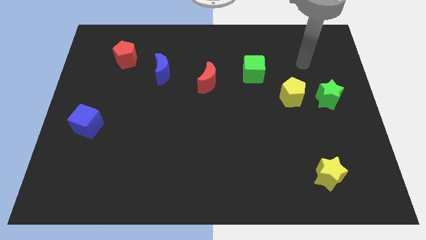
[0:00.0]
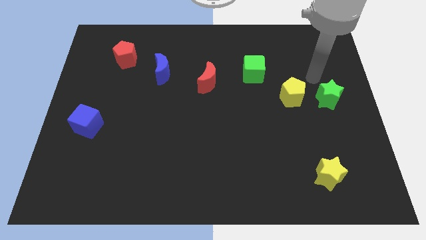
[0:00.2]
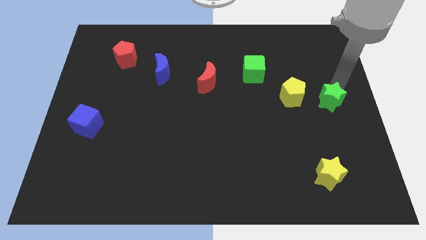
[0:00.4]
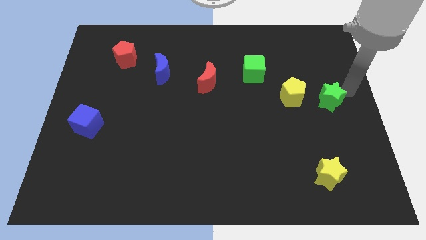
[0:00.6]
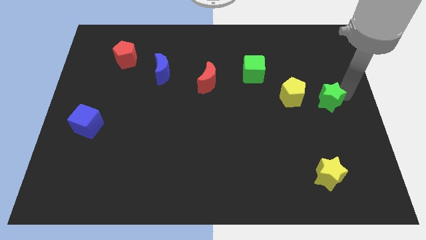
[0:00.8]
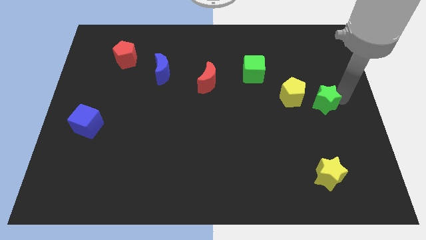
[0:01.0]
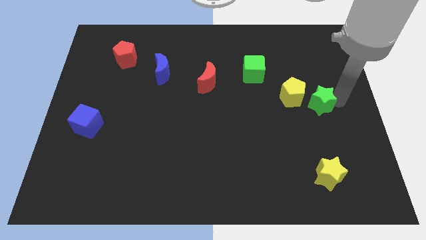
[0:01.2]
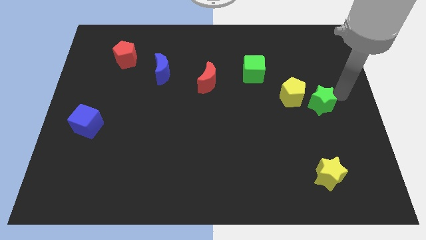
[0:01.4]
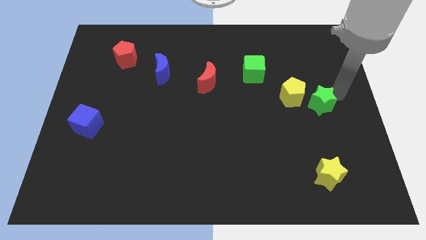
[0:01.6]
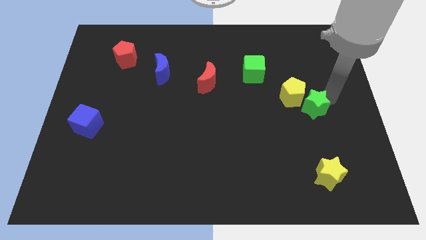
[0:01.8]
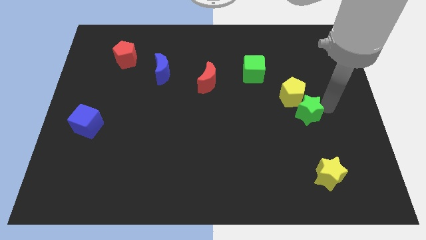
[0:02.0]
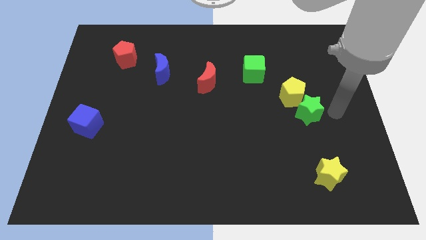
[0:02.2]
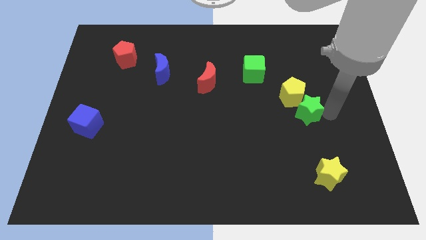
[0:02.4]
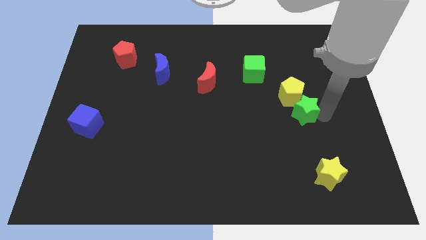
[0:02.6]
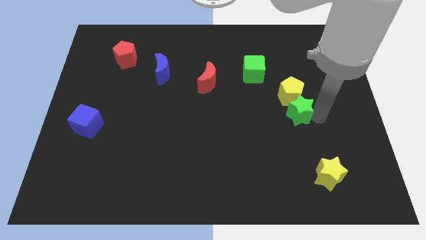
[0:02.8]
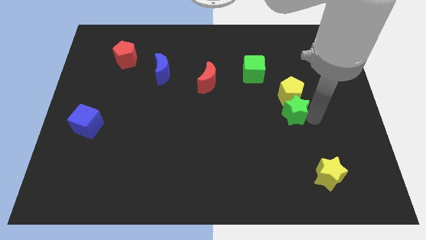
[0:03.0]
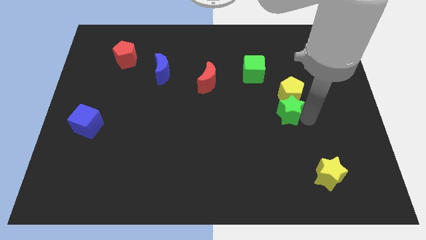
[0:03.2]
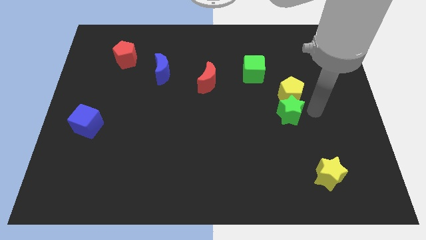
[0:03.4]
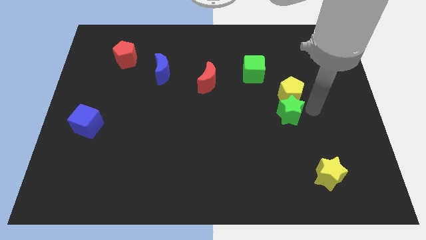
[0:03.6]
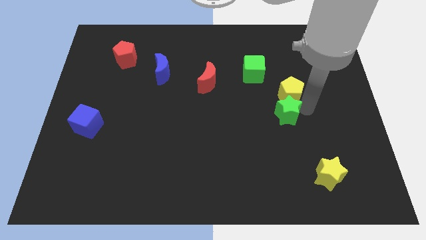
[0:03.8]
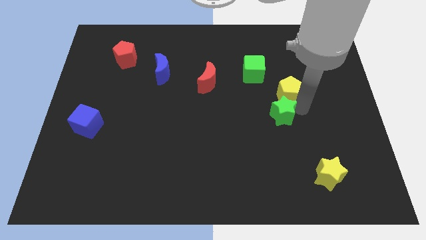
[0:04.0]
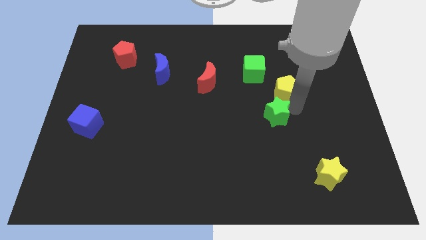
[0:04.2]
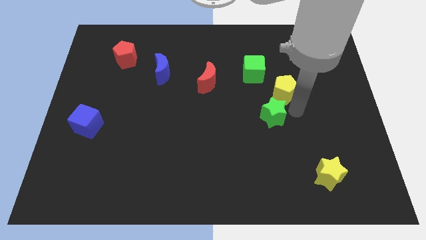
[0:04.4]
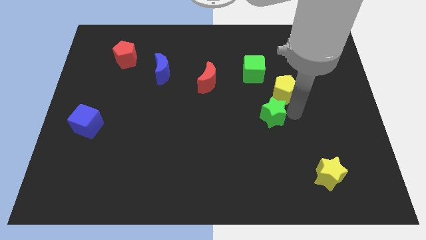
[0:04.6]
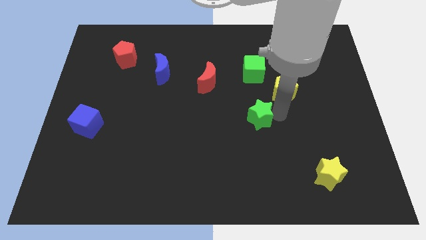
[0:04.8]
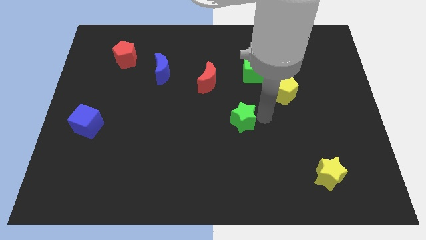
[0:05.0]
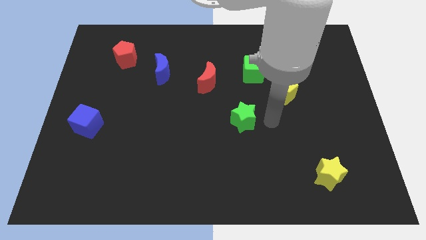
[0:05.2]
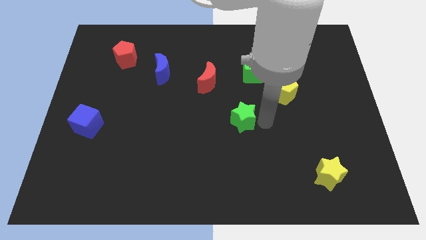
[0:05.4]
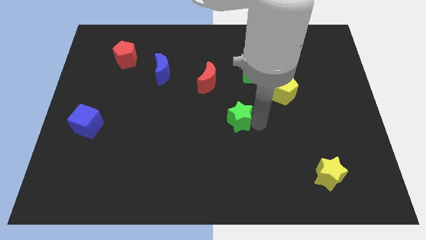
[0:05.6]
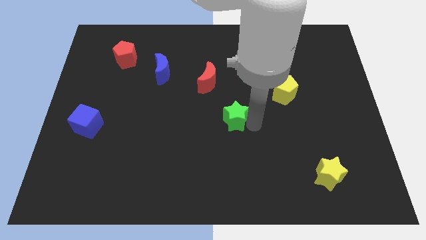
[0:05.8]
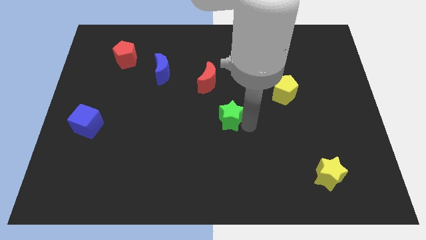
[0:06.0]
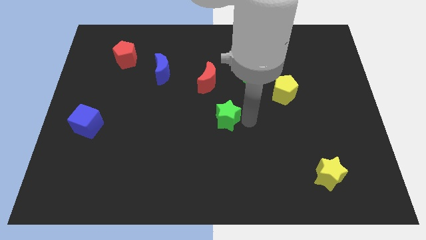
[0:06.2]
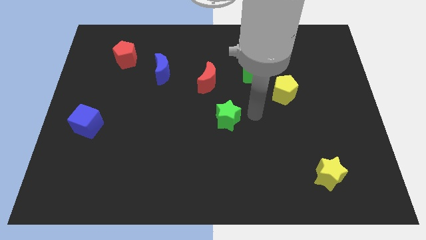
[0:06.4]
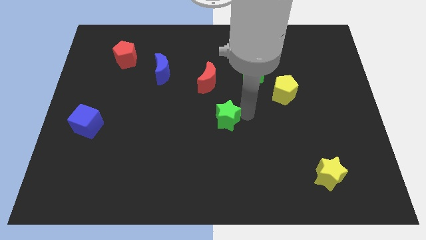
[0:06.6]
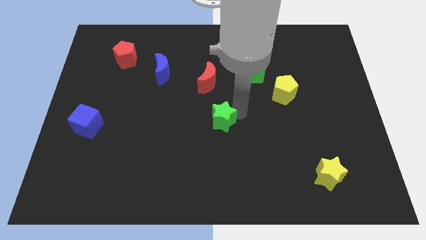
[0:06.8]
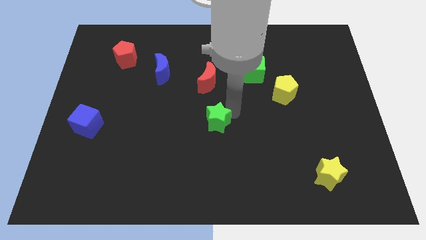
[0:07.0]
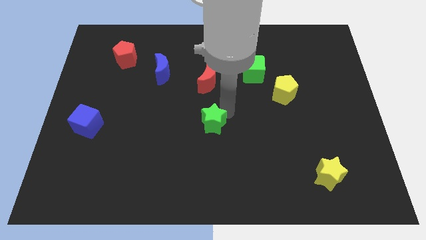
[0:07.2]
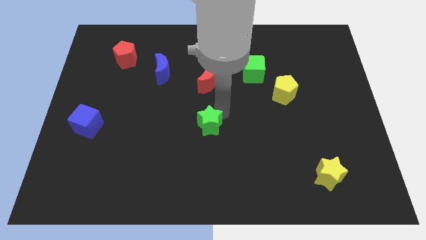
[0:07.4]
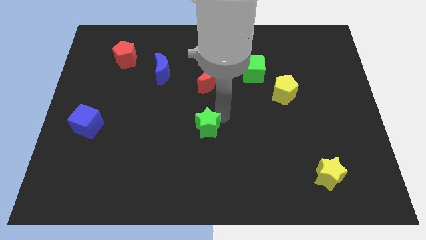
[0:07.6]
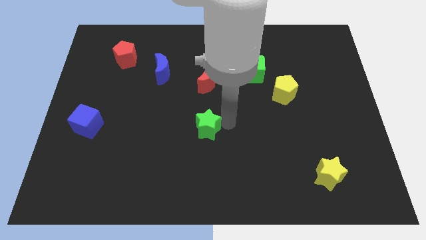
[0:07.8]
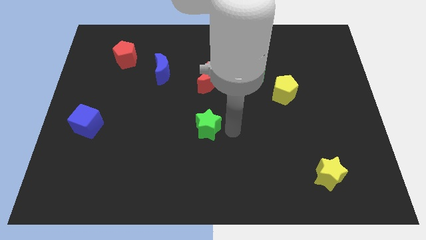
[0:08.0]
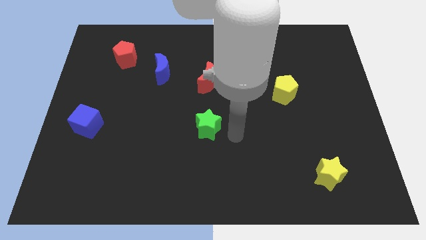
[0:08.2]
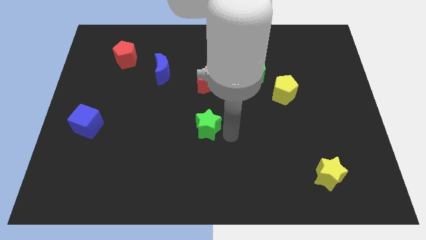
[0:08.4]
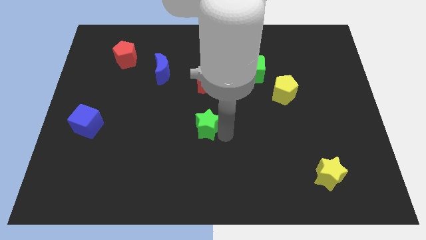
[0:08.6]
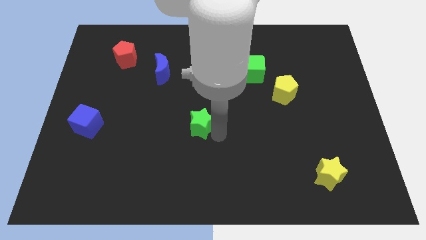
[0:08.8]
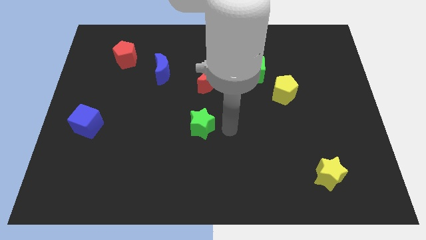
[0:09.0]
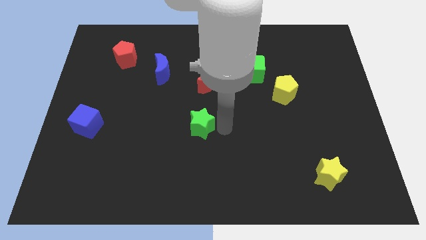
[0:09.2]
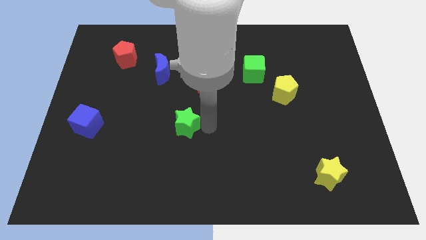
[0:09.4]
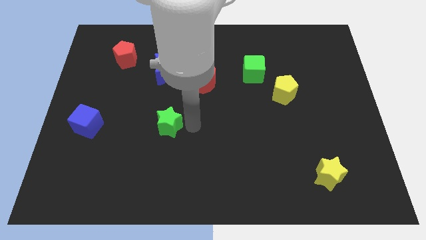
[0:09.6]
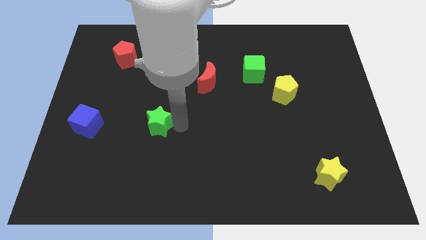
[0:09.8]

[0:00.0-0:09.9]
slide the green star just right of the blue cube

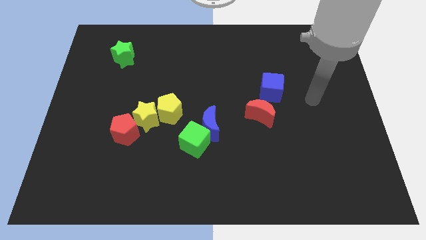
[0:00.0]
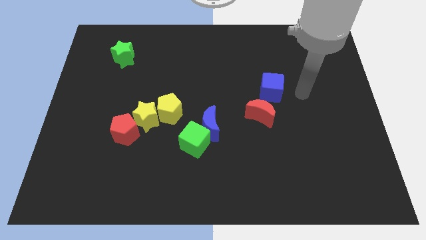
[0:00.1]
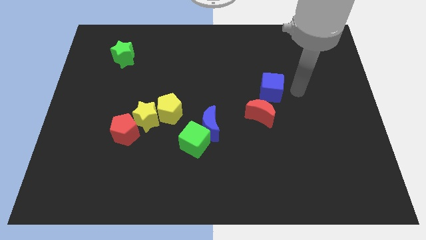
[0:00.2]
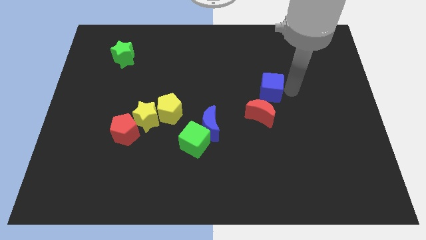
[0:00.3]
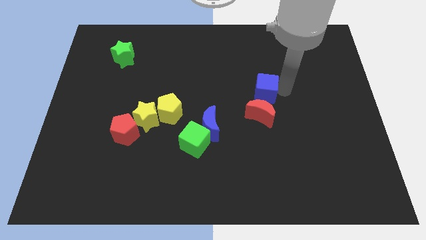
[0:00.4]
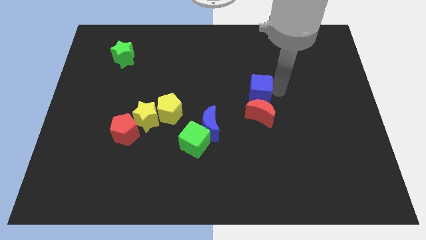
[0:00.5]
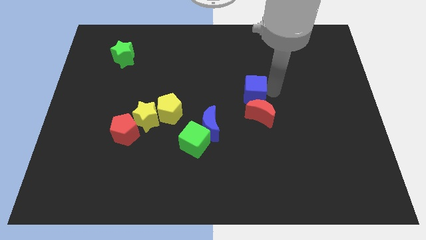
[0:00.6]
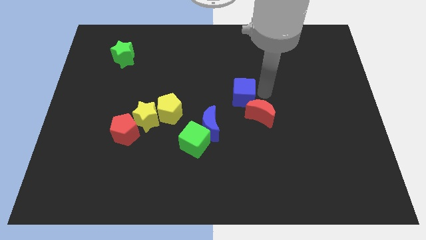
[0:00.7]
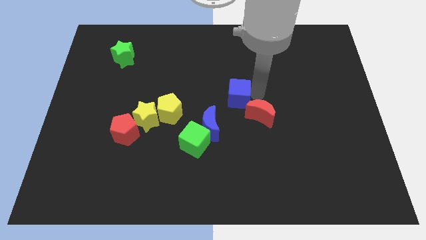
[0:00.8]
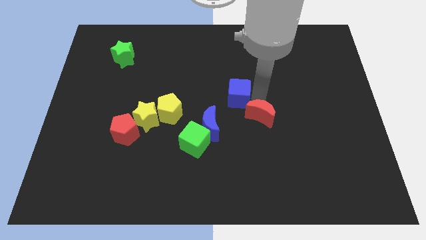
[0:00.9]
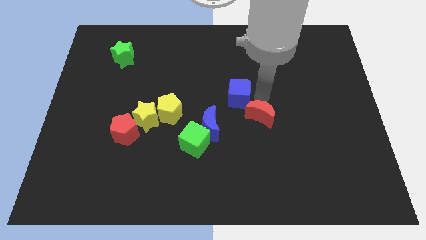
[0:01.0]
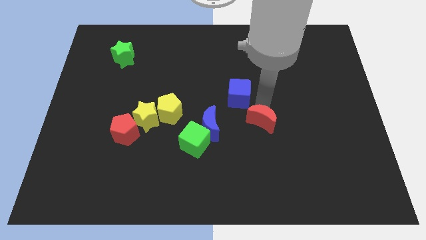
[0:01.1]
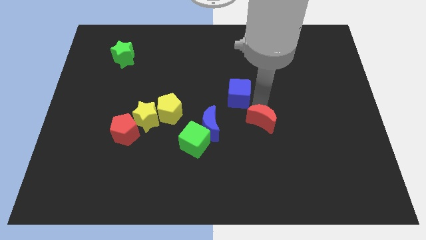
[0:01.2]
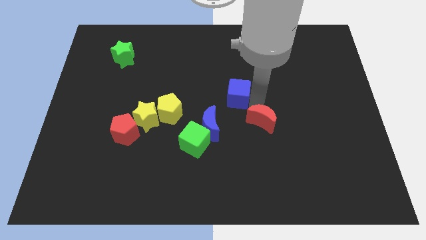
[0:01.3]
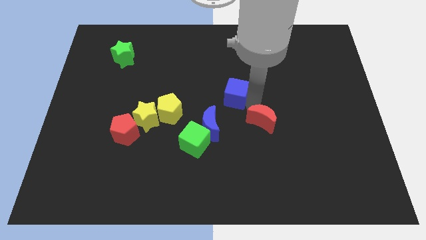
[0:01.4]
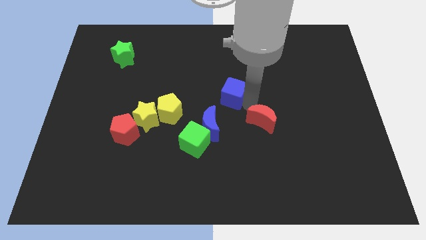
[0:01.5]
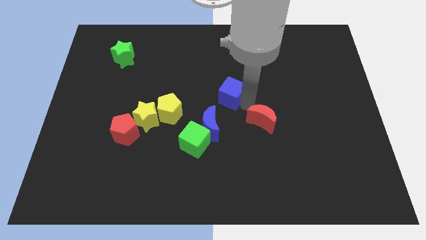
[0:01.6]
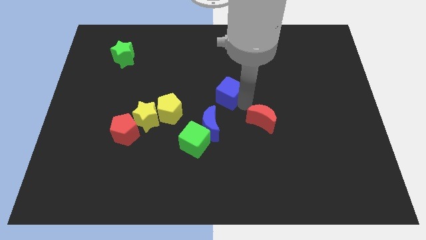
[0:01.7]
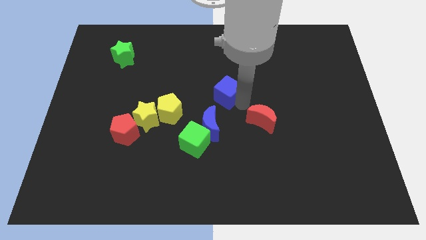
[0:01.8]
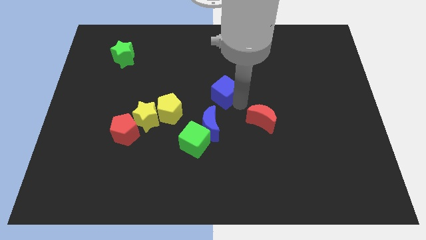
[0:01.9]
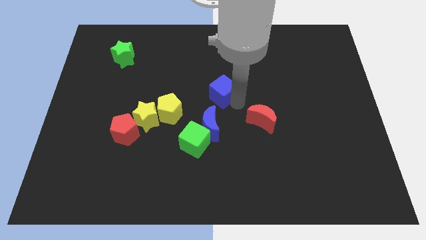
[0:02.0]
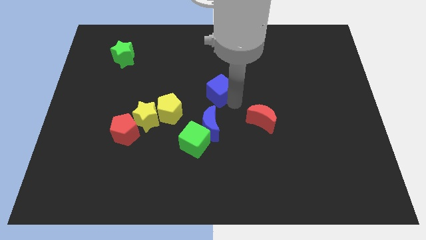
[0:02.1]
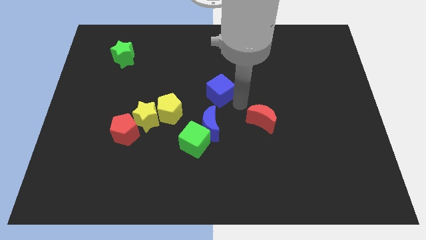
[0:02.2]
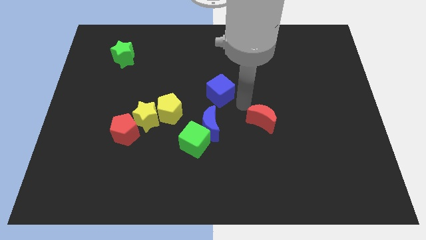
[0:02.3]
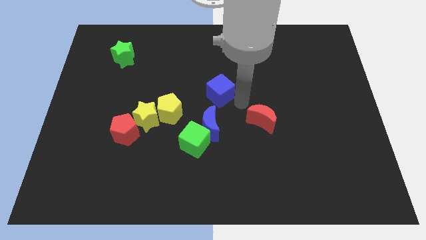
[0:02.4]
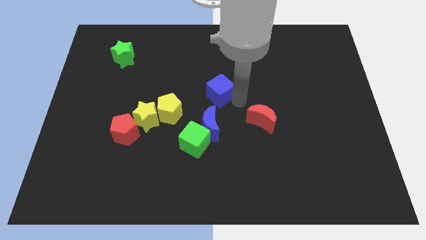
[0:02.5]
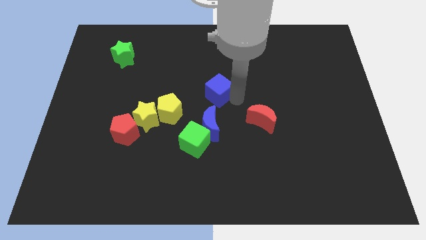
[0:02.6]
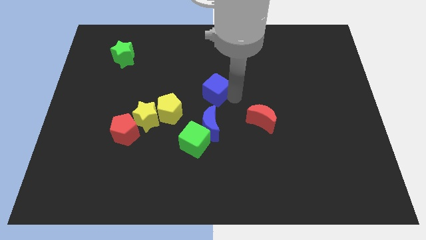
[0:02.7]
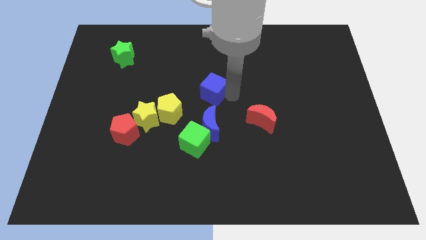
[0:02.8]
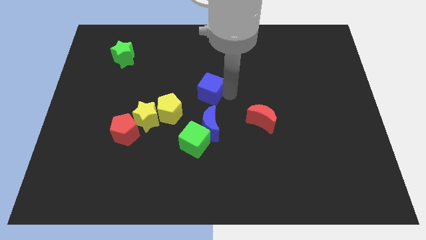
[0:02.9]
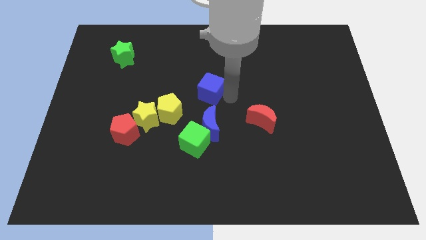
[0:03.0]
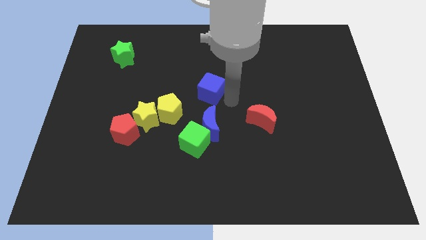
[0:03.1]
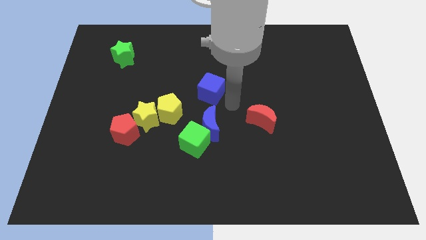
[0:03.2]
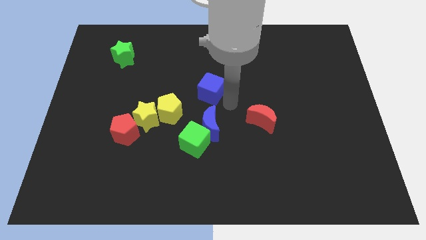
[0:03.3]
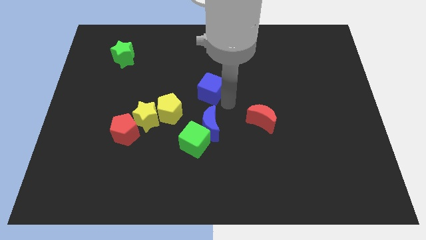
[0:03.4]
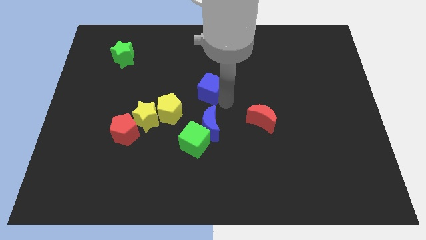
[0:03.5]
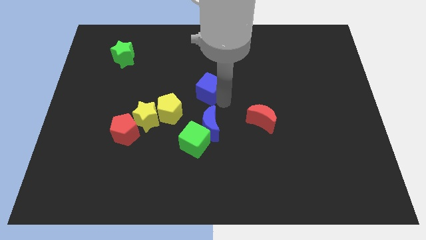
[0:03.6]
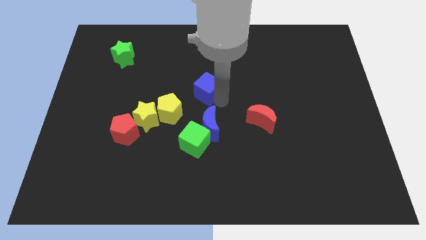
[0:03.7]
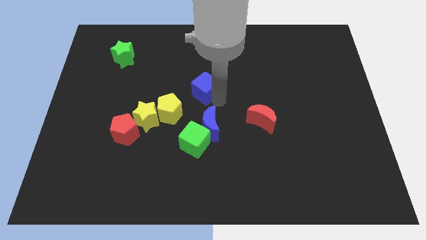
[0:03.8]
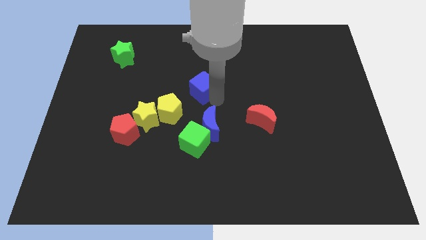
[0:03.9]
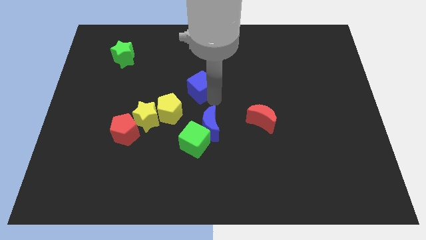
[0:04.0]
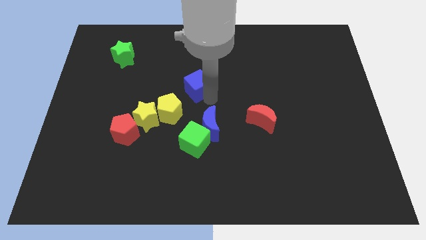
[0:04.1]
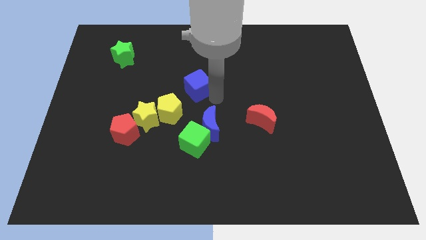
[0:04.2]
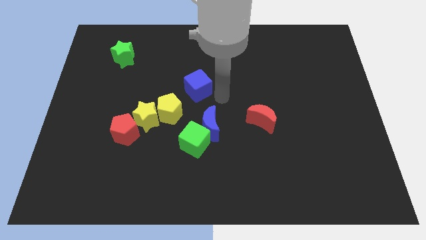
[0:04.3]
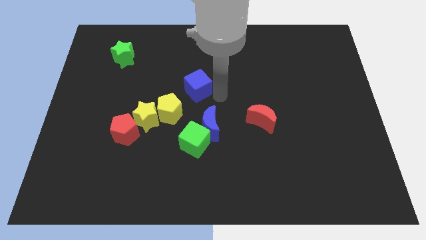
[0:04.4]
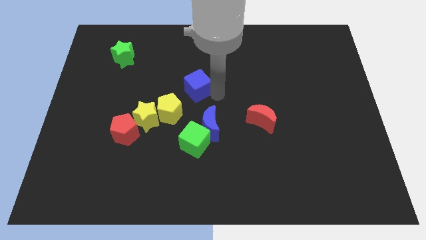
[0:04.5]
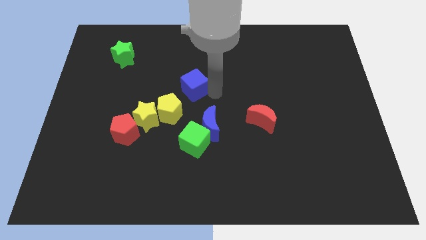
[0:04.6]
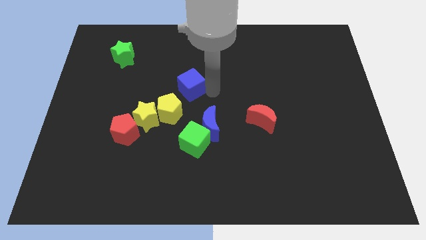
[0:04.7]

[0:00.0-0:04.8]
put the blue cube to the top side of the yellow pentagon
